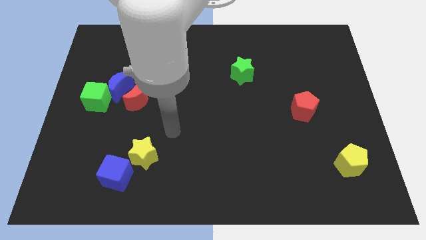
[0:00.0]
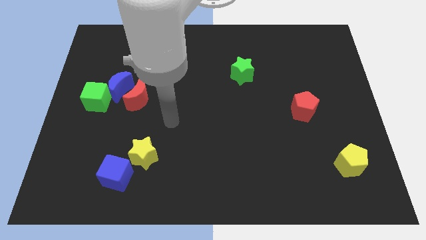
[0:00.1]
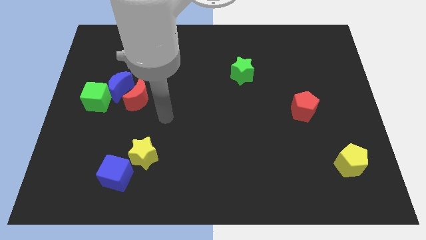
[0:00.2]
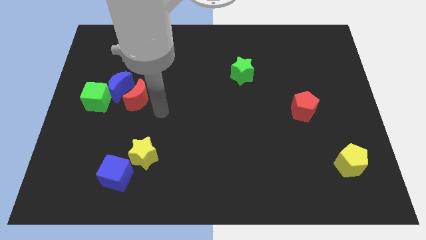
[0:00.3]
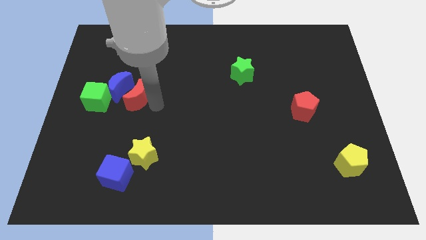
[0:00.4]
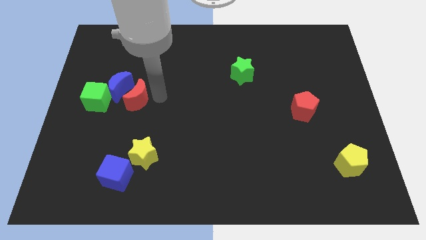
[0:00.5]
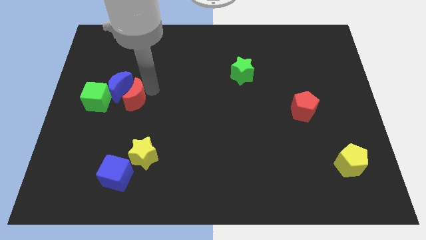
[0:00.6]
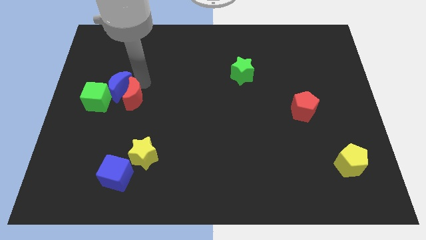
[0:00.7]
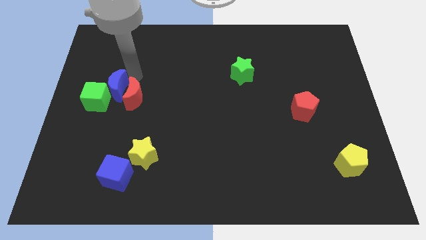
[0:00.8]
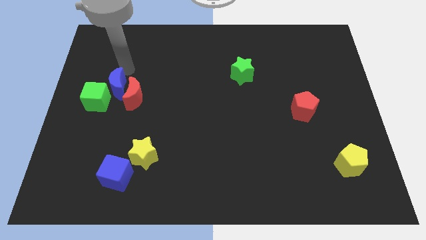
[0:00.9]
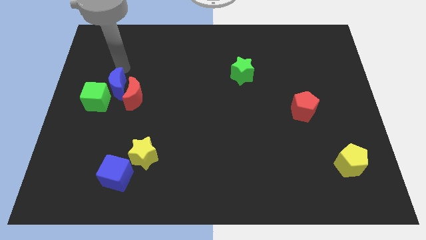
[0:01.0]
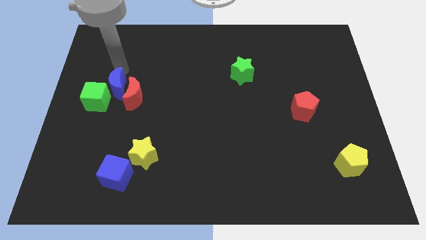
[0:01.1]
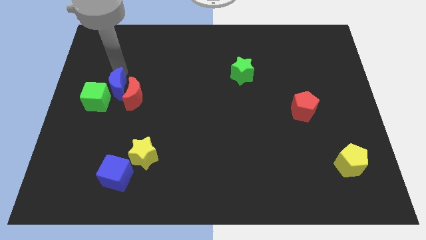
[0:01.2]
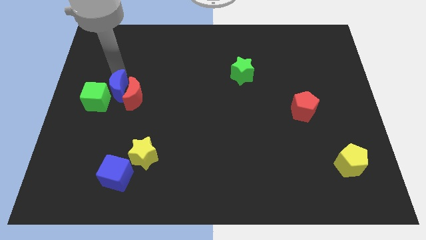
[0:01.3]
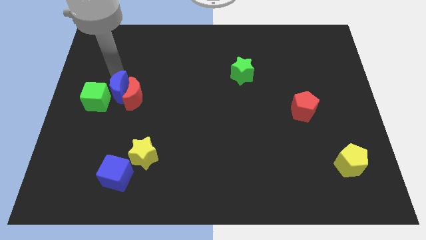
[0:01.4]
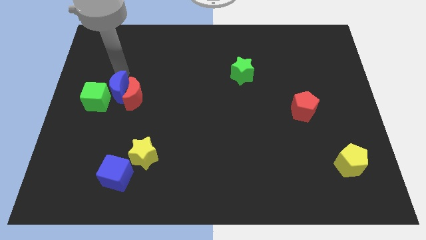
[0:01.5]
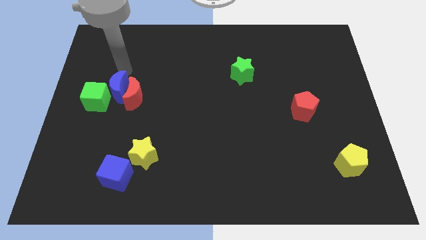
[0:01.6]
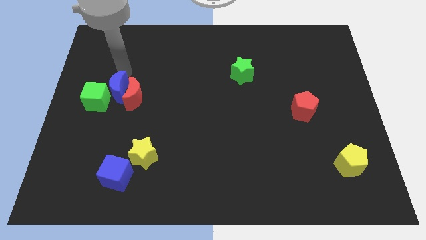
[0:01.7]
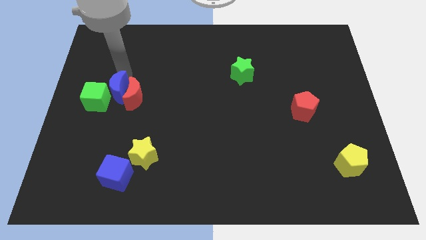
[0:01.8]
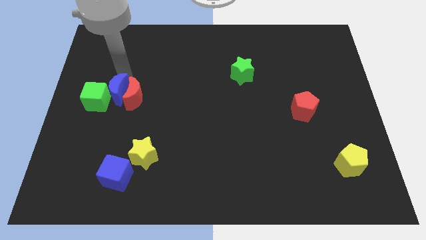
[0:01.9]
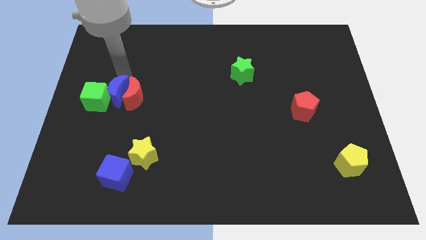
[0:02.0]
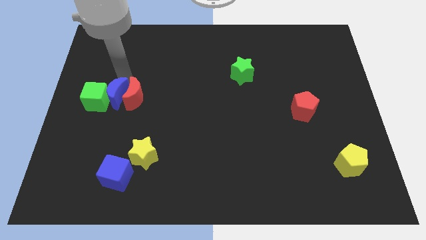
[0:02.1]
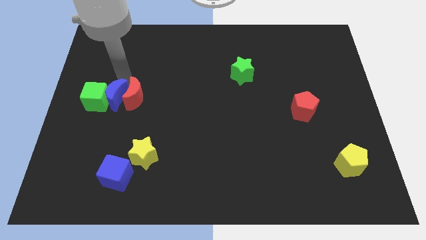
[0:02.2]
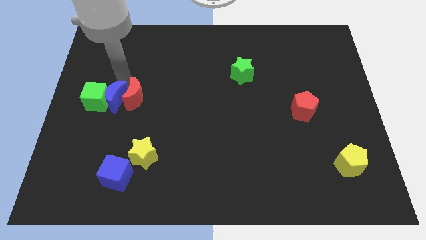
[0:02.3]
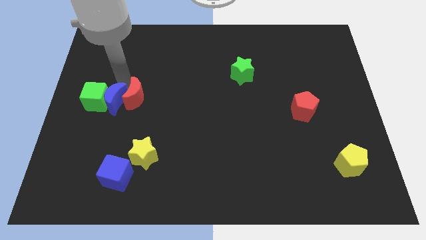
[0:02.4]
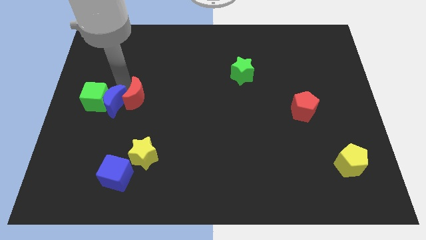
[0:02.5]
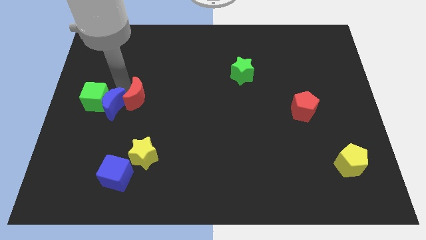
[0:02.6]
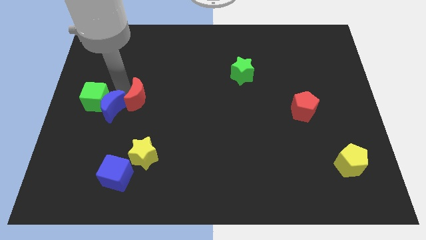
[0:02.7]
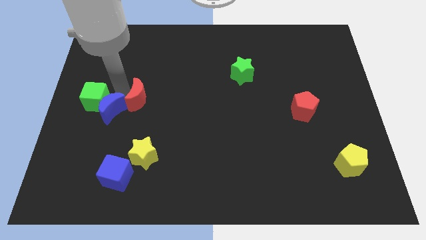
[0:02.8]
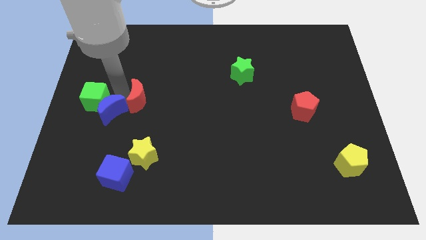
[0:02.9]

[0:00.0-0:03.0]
push the blue moon somewhat down

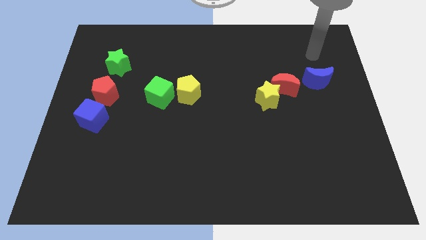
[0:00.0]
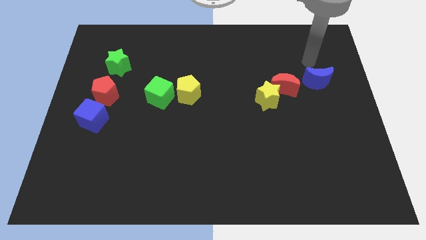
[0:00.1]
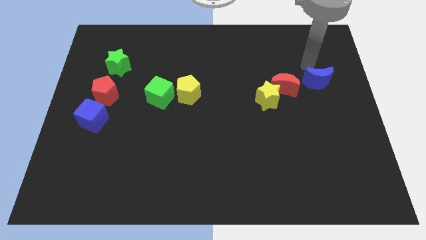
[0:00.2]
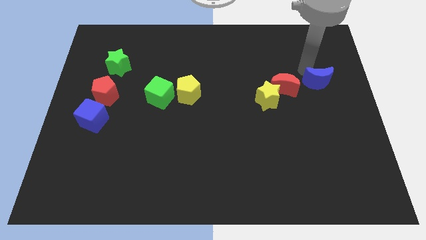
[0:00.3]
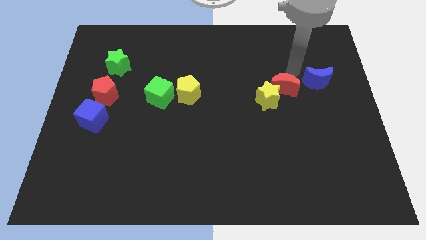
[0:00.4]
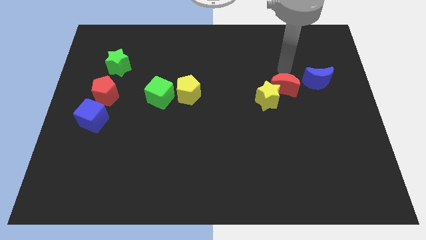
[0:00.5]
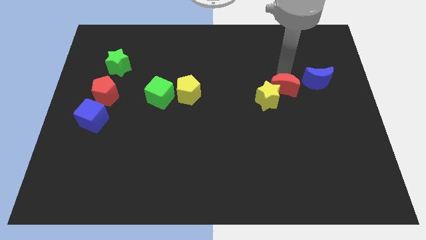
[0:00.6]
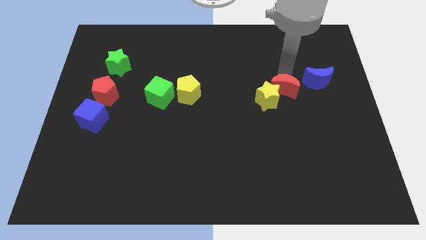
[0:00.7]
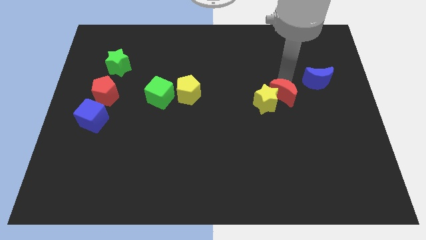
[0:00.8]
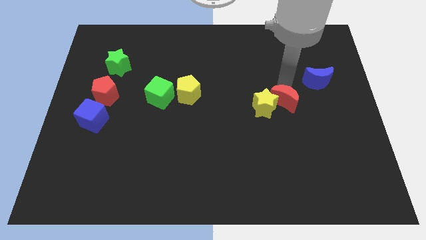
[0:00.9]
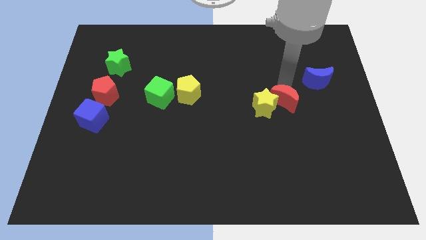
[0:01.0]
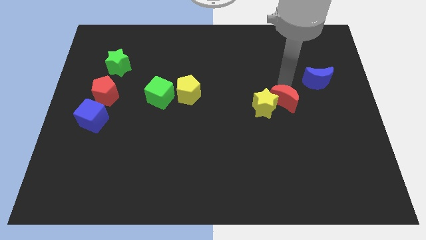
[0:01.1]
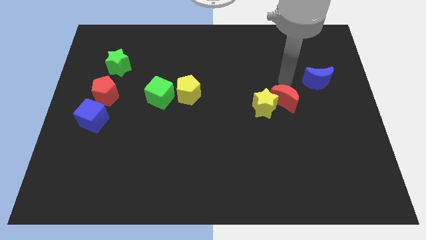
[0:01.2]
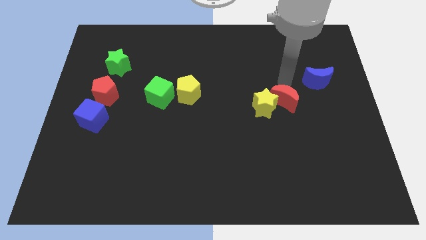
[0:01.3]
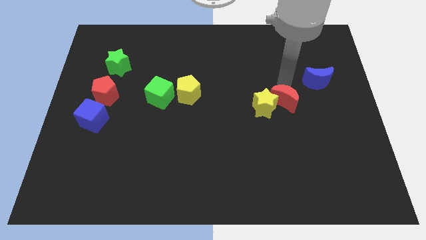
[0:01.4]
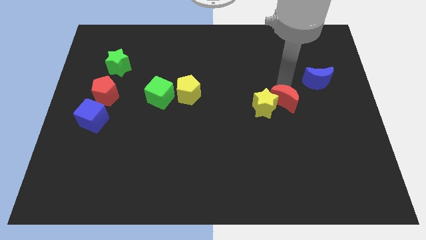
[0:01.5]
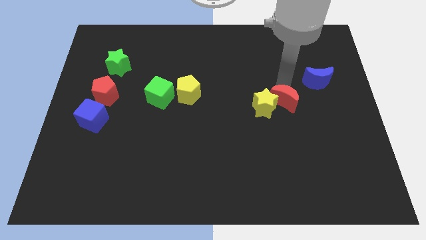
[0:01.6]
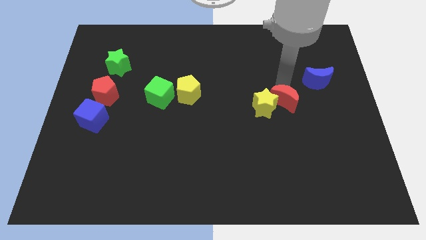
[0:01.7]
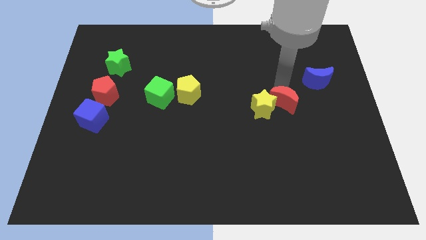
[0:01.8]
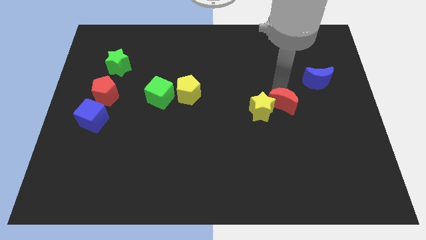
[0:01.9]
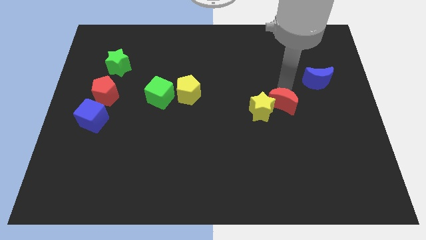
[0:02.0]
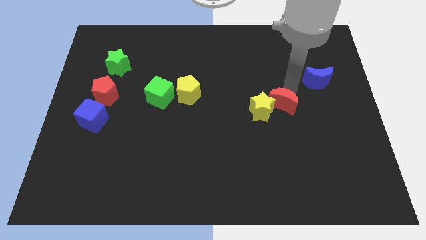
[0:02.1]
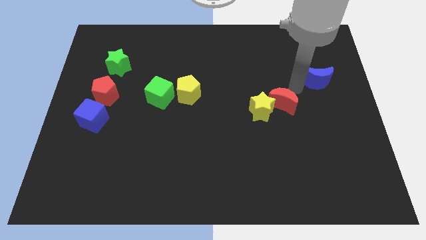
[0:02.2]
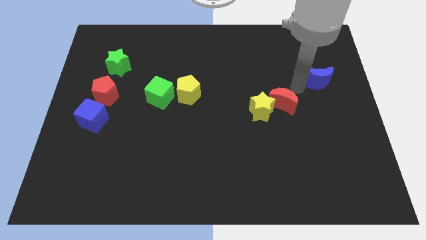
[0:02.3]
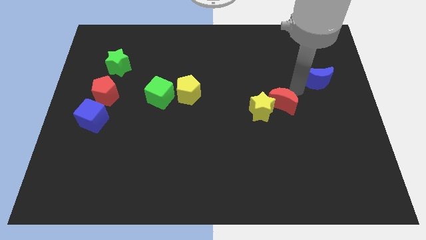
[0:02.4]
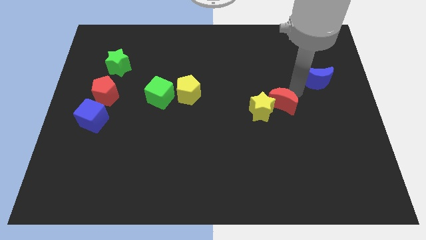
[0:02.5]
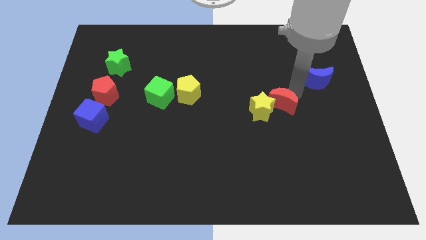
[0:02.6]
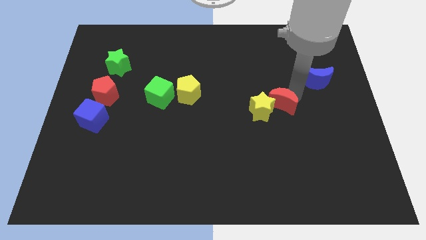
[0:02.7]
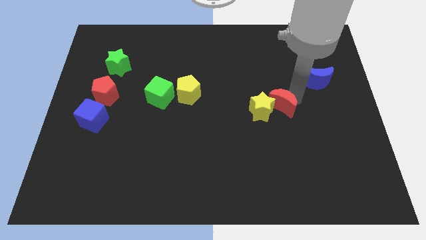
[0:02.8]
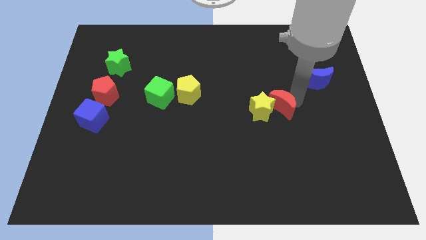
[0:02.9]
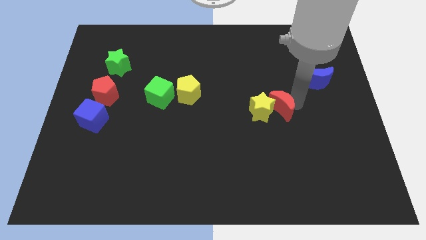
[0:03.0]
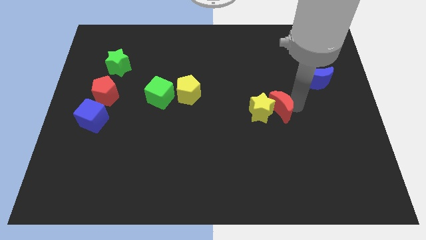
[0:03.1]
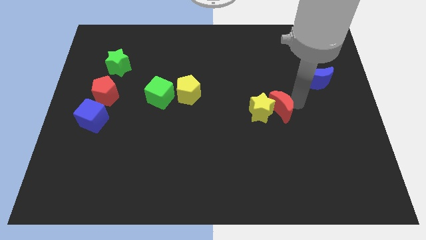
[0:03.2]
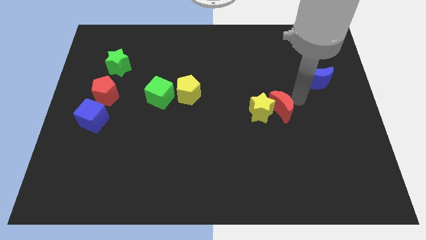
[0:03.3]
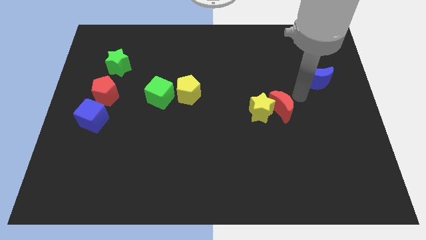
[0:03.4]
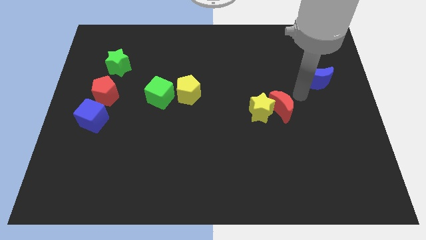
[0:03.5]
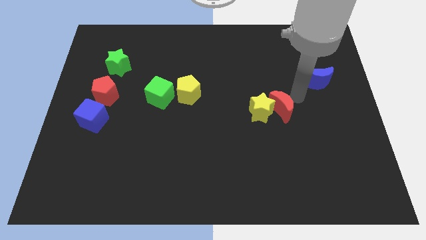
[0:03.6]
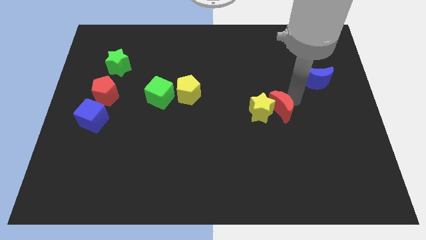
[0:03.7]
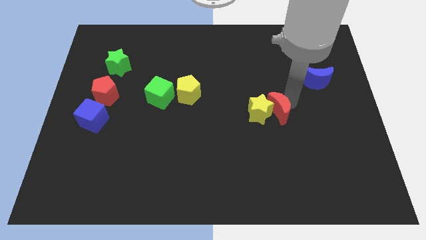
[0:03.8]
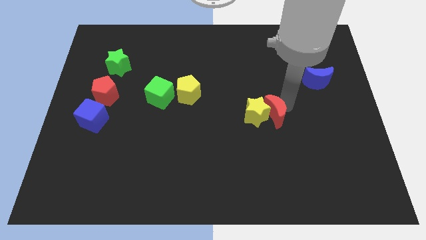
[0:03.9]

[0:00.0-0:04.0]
slide the red moon a little bit diagonally downwards and to the left

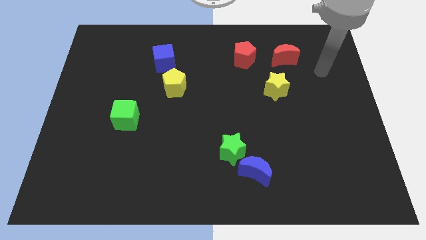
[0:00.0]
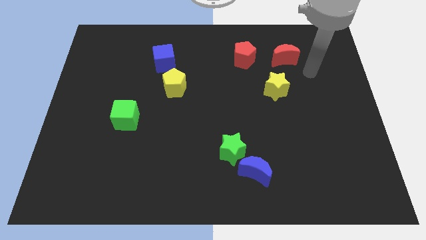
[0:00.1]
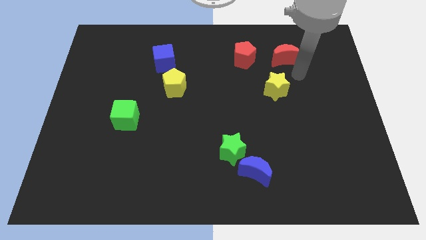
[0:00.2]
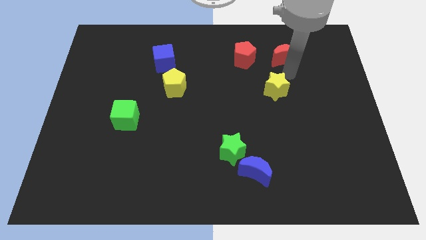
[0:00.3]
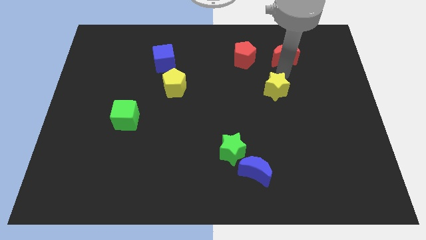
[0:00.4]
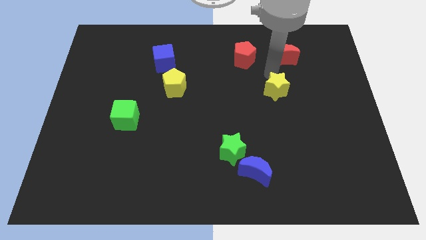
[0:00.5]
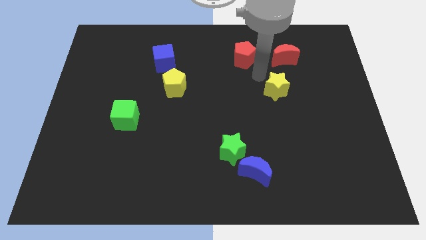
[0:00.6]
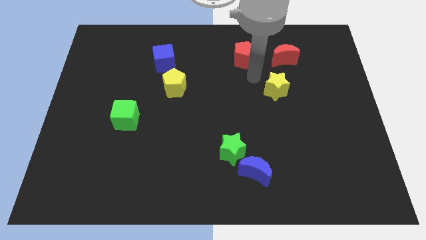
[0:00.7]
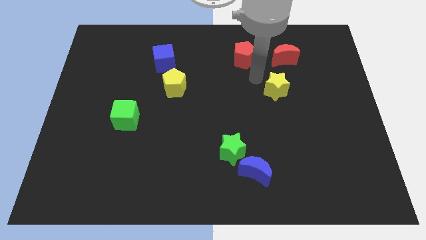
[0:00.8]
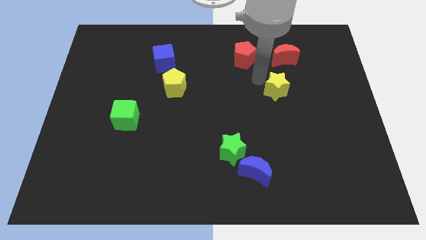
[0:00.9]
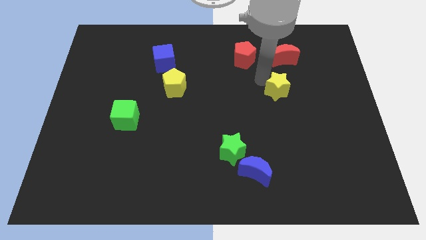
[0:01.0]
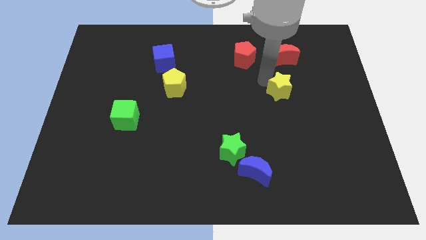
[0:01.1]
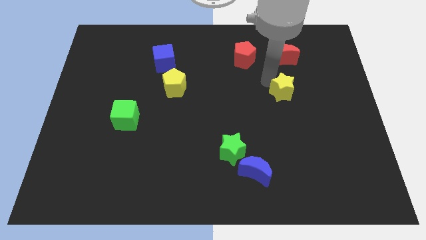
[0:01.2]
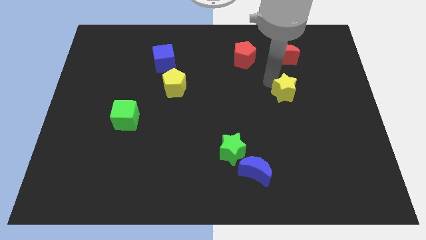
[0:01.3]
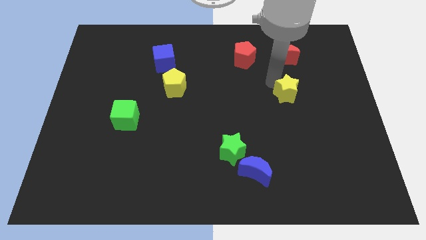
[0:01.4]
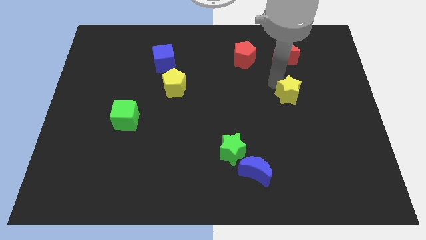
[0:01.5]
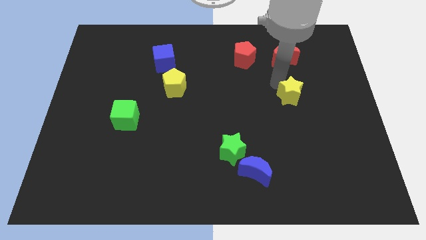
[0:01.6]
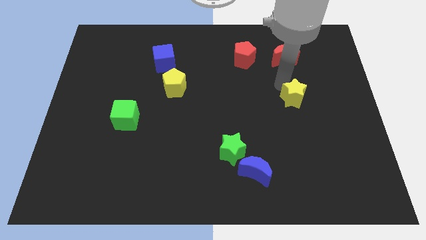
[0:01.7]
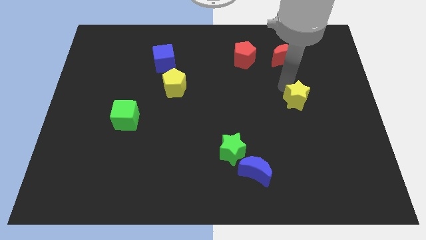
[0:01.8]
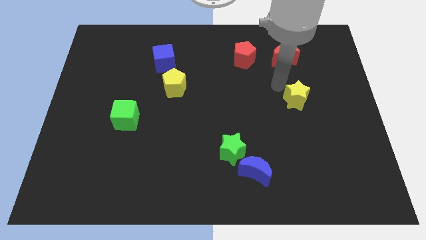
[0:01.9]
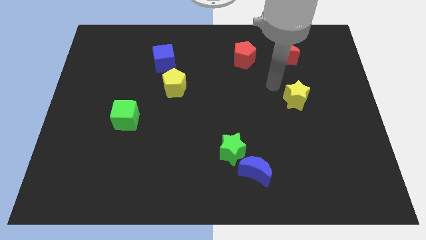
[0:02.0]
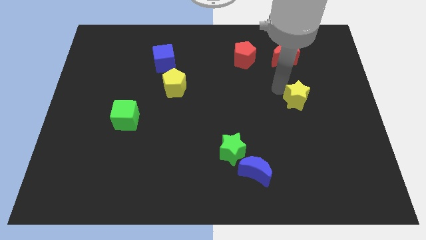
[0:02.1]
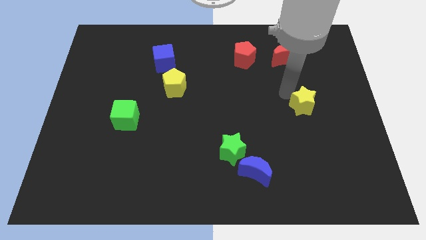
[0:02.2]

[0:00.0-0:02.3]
slide the yellow star down and then to the right a little bit
